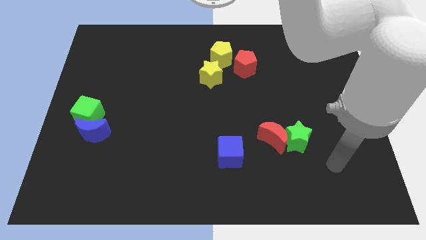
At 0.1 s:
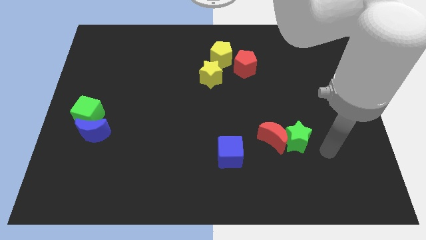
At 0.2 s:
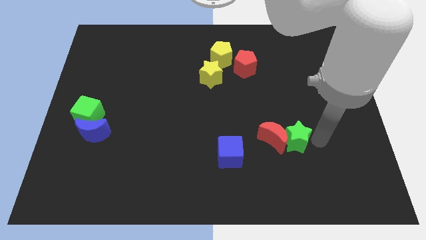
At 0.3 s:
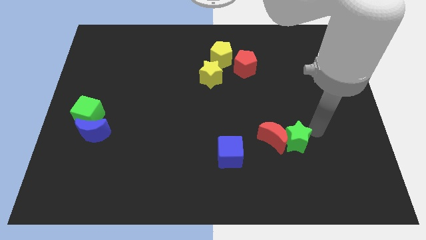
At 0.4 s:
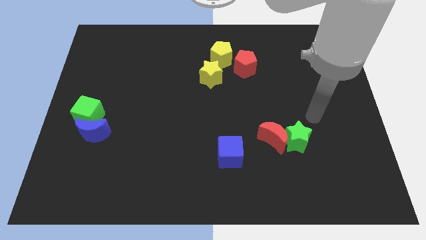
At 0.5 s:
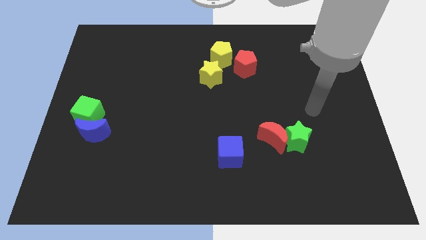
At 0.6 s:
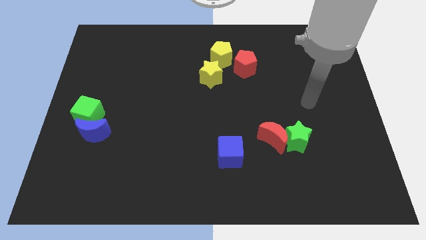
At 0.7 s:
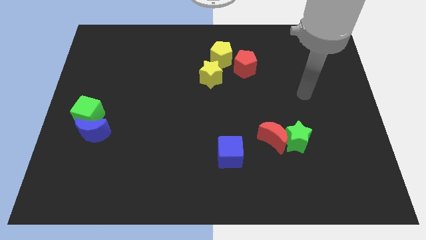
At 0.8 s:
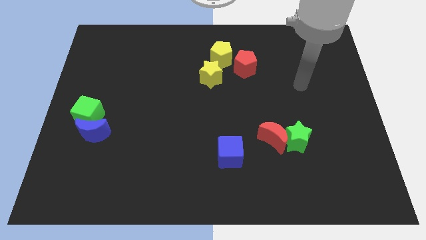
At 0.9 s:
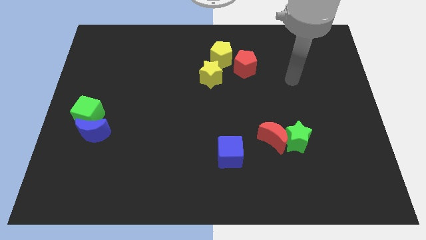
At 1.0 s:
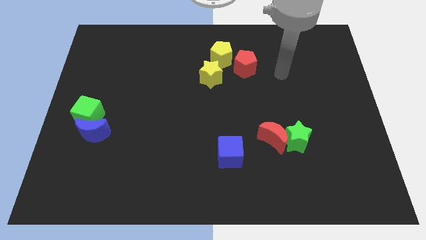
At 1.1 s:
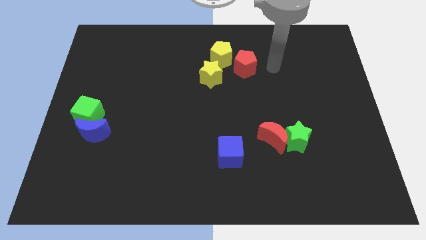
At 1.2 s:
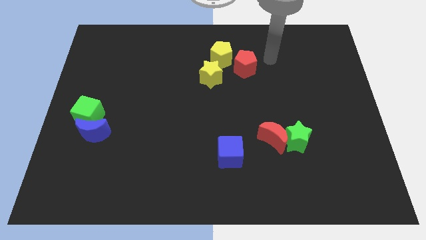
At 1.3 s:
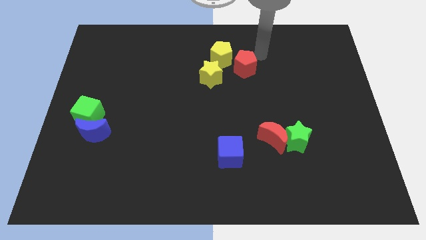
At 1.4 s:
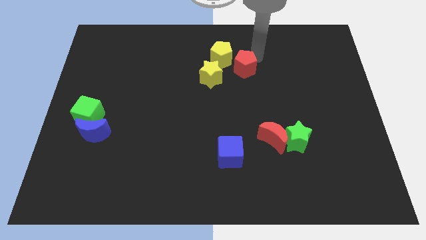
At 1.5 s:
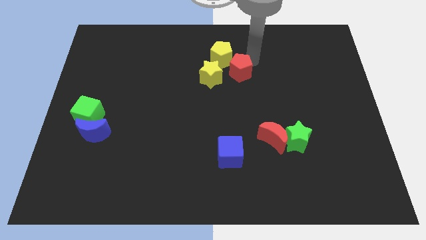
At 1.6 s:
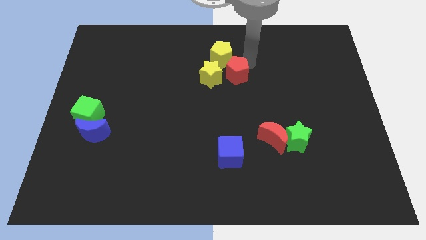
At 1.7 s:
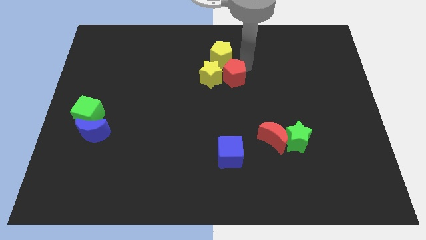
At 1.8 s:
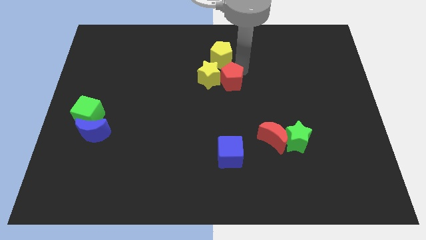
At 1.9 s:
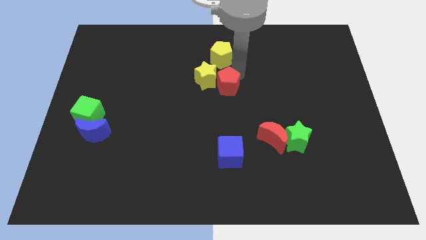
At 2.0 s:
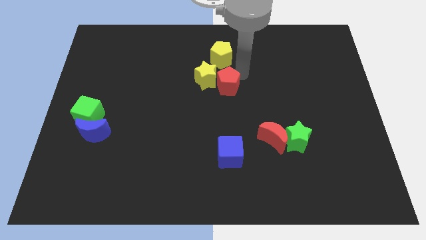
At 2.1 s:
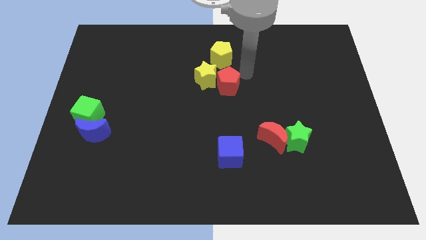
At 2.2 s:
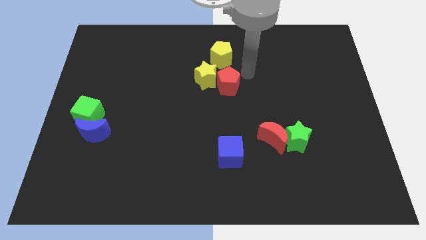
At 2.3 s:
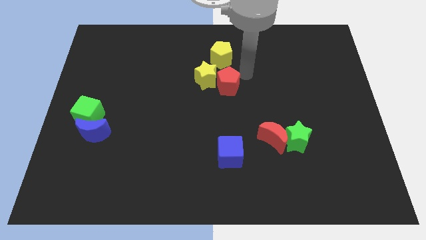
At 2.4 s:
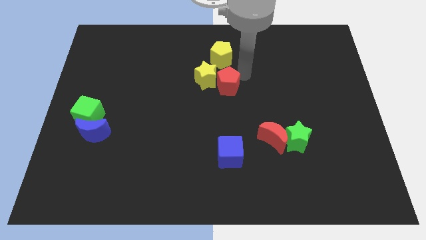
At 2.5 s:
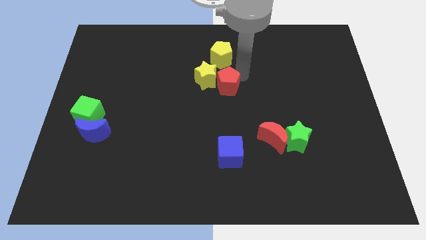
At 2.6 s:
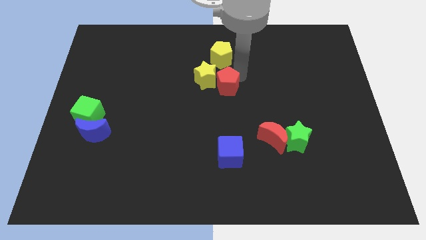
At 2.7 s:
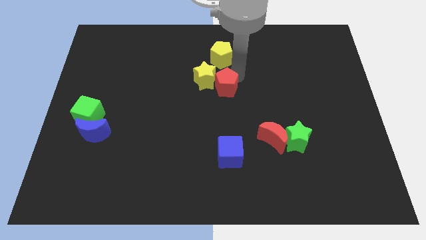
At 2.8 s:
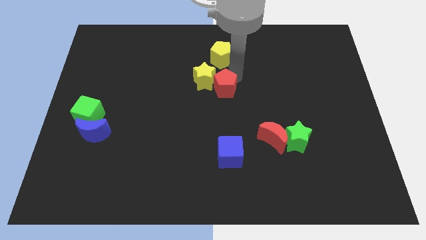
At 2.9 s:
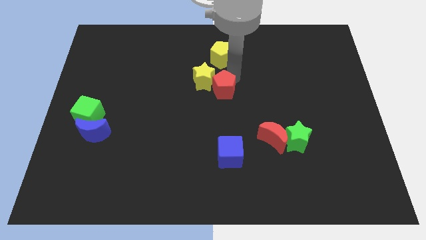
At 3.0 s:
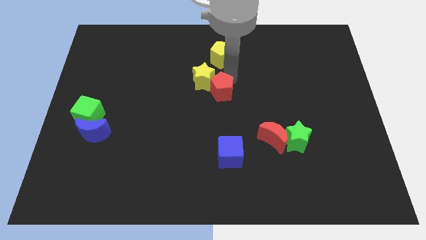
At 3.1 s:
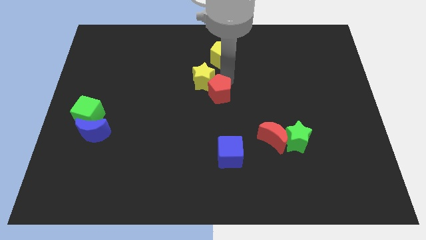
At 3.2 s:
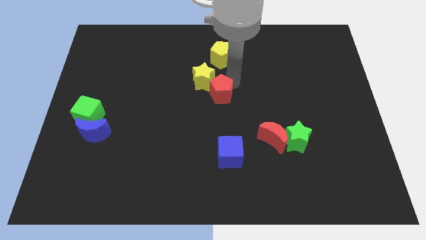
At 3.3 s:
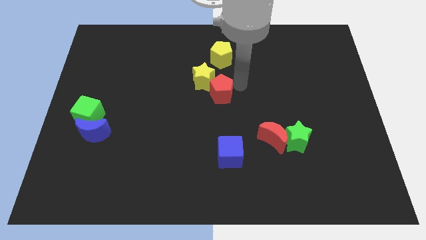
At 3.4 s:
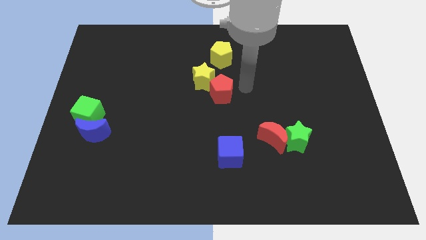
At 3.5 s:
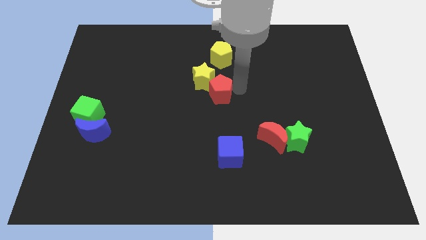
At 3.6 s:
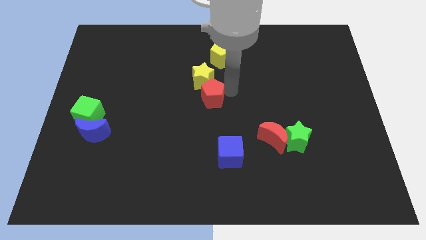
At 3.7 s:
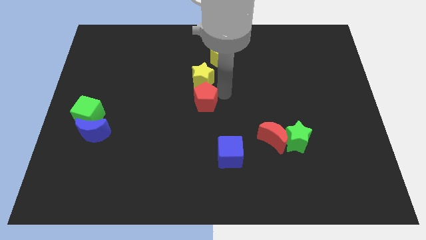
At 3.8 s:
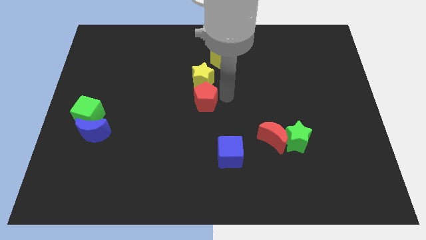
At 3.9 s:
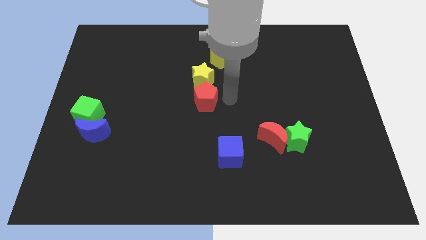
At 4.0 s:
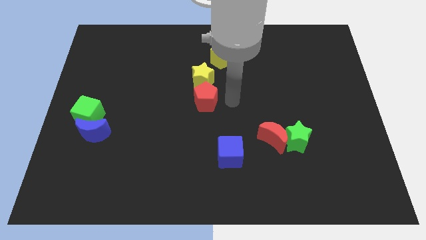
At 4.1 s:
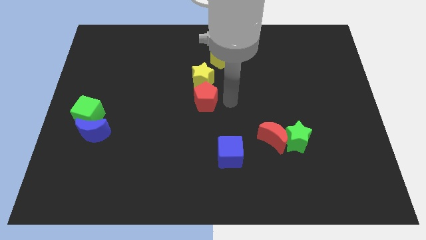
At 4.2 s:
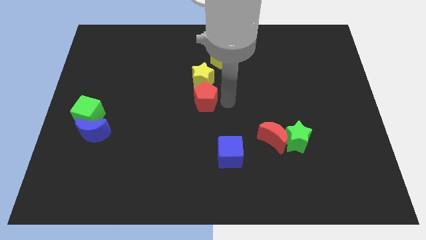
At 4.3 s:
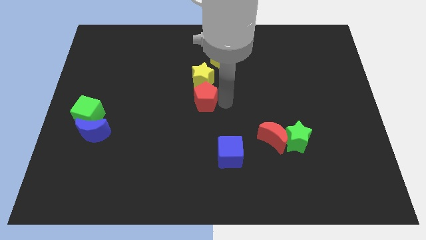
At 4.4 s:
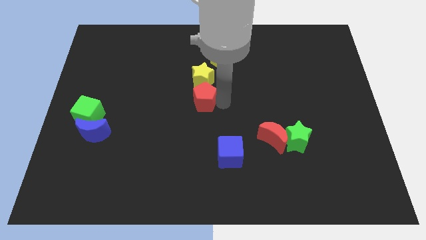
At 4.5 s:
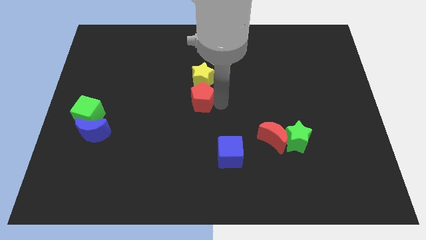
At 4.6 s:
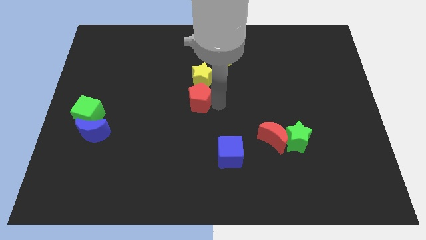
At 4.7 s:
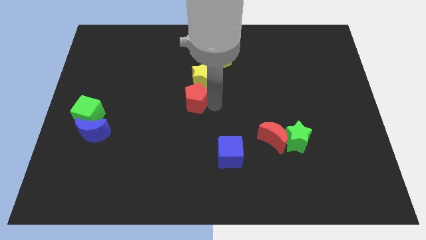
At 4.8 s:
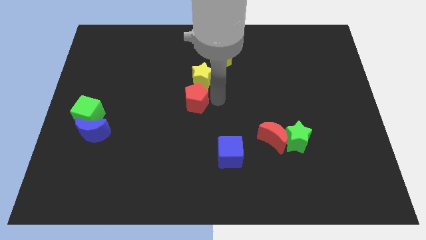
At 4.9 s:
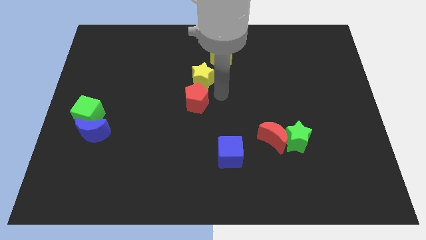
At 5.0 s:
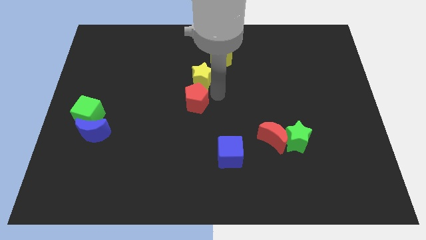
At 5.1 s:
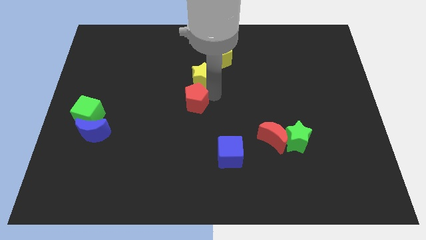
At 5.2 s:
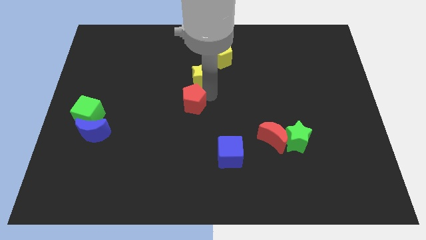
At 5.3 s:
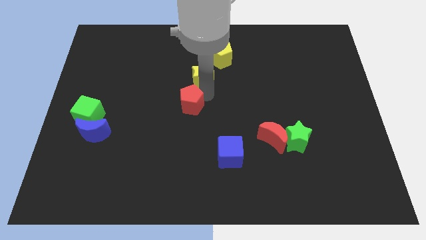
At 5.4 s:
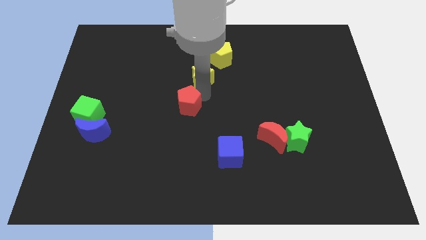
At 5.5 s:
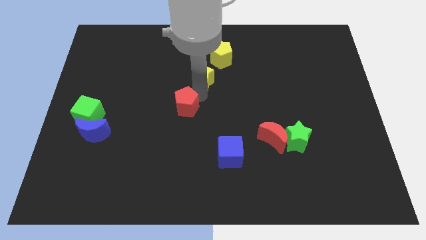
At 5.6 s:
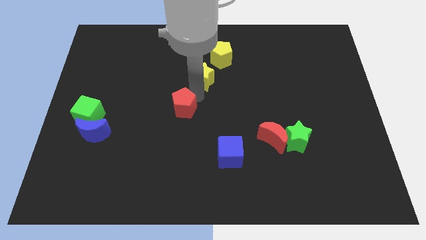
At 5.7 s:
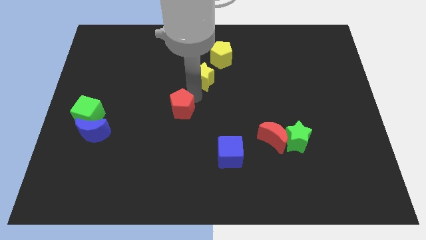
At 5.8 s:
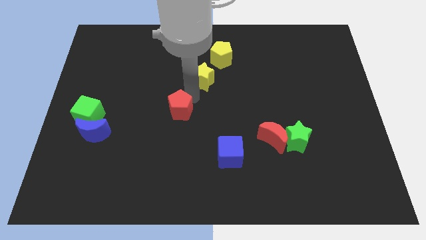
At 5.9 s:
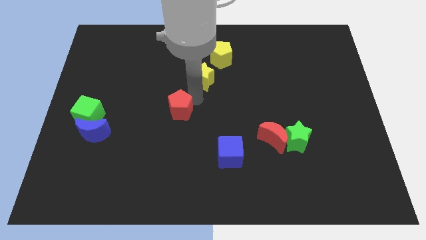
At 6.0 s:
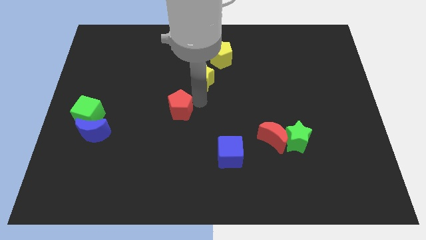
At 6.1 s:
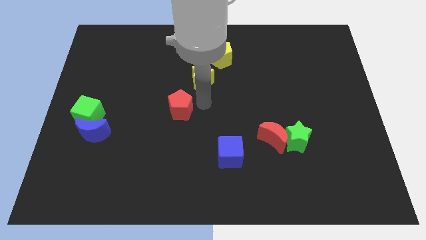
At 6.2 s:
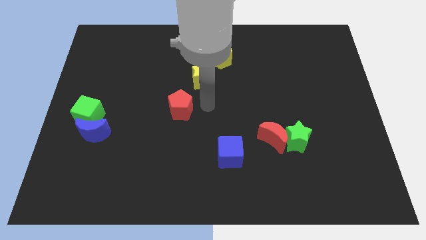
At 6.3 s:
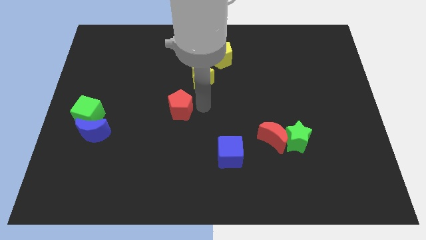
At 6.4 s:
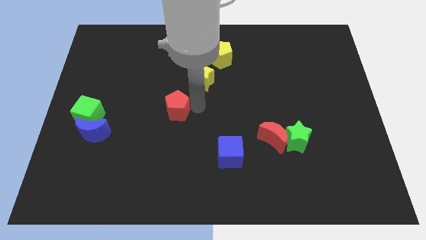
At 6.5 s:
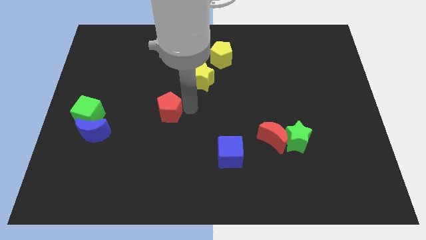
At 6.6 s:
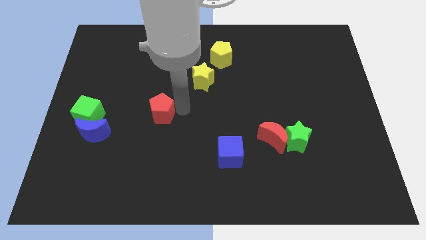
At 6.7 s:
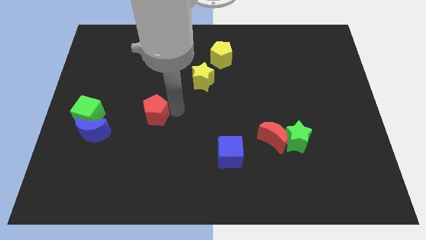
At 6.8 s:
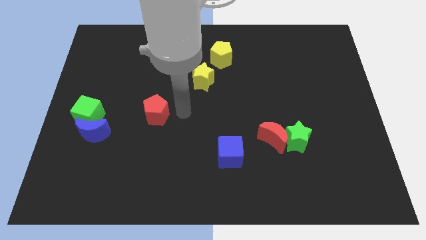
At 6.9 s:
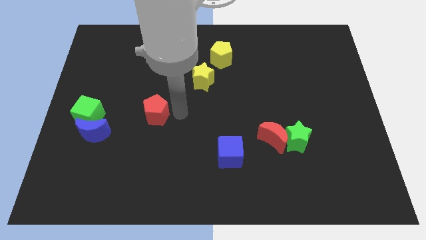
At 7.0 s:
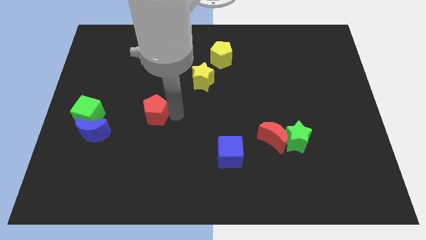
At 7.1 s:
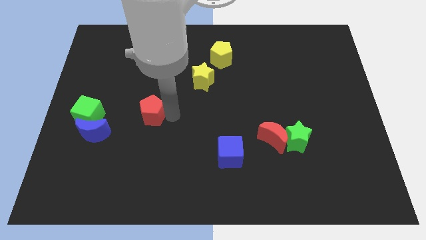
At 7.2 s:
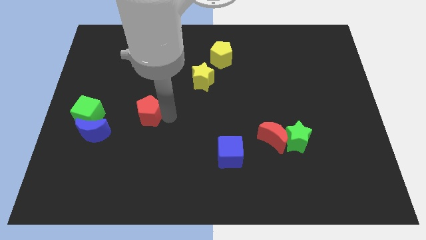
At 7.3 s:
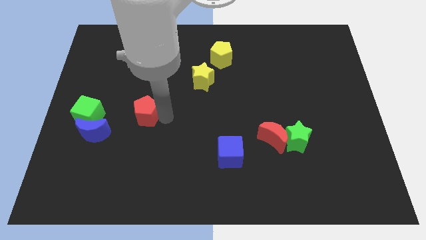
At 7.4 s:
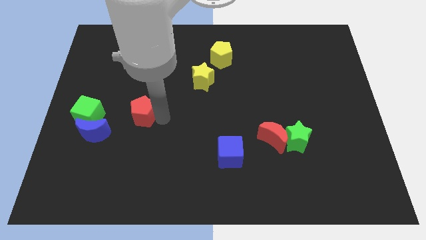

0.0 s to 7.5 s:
slide the red pentagon diagonally up and to the right of the blue moon
